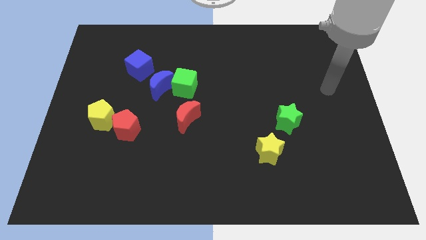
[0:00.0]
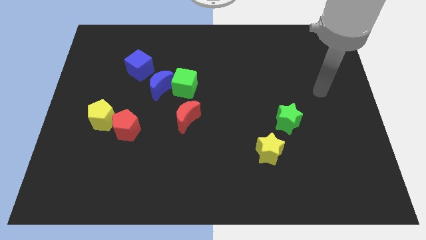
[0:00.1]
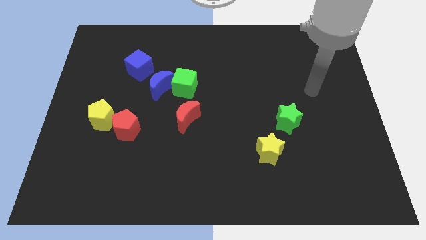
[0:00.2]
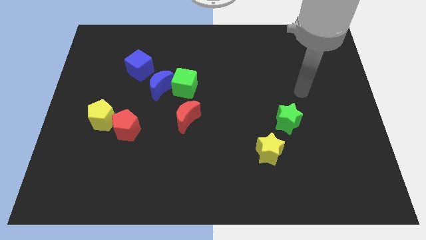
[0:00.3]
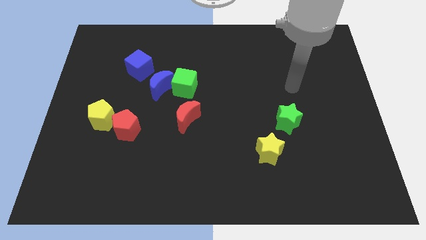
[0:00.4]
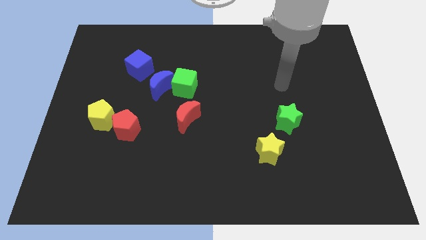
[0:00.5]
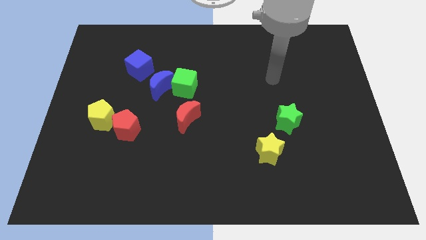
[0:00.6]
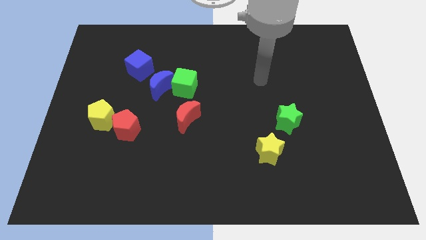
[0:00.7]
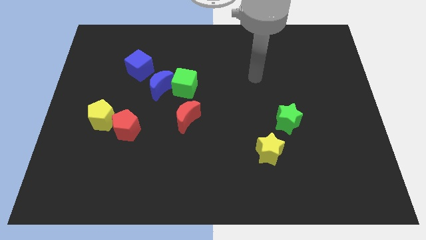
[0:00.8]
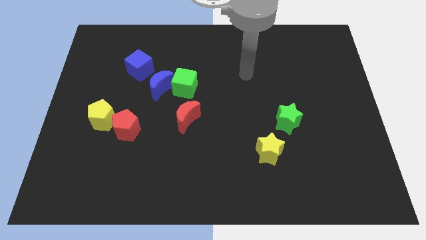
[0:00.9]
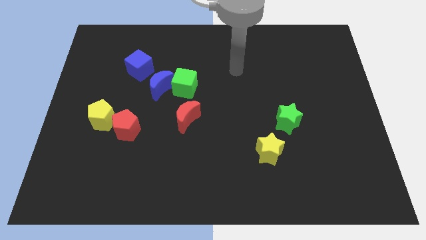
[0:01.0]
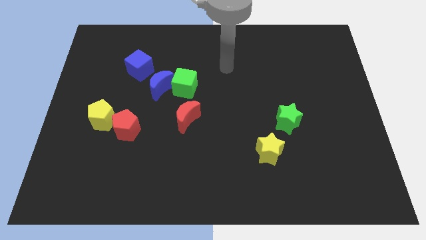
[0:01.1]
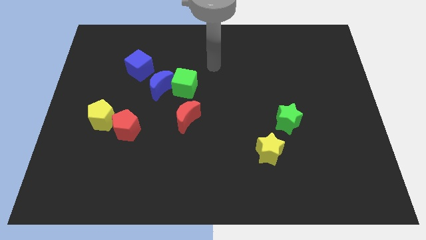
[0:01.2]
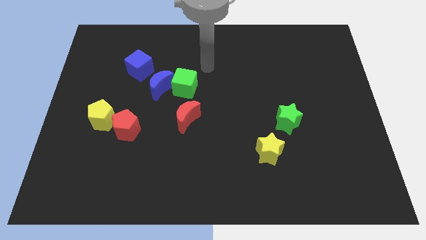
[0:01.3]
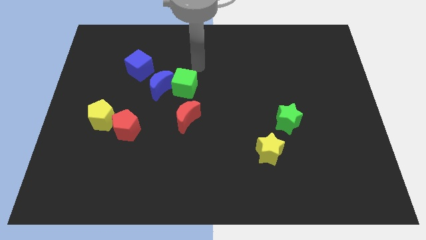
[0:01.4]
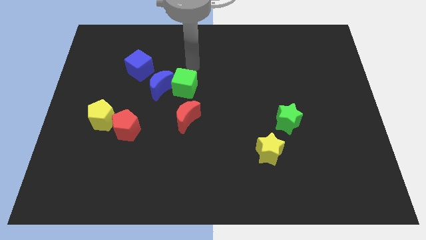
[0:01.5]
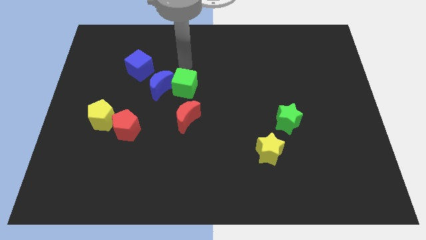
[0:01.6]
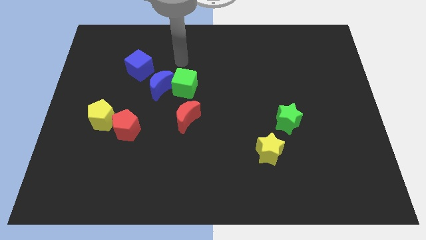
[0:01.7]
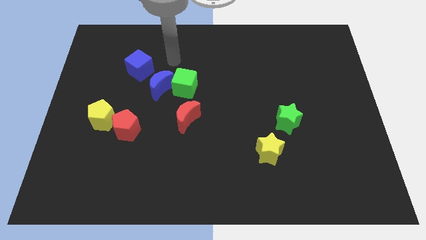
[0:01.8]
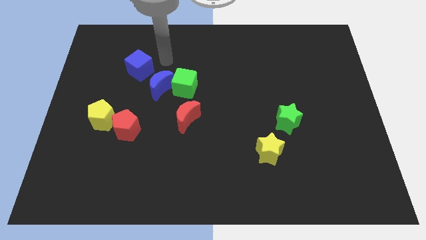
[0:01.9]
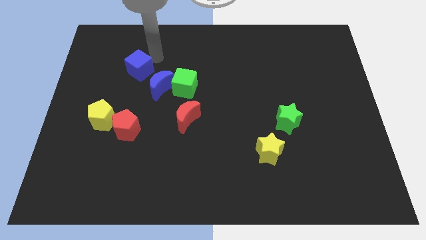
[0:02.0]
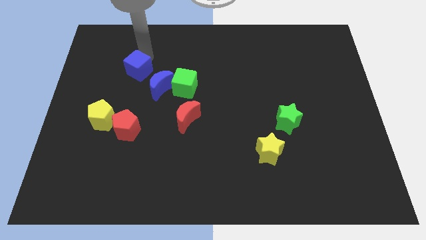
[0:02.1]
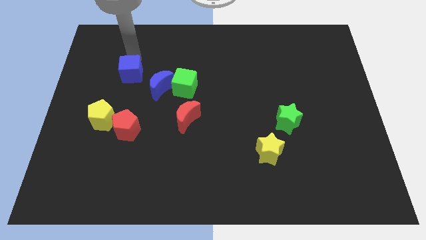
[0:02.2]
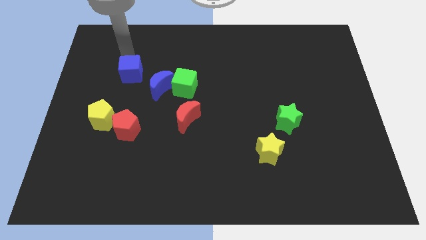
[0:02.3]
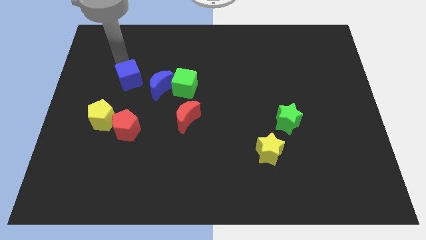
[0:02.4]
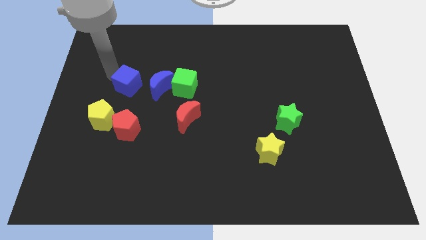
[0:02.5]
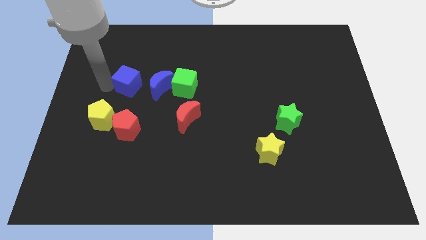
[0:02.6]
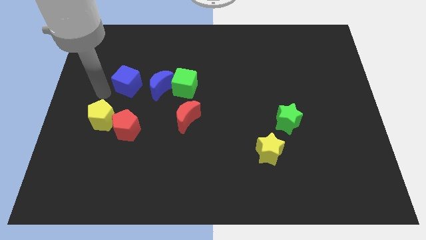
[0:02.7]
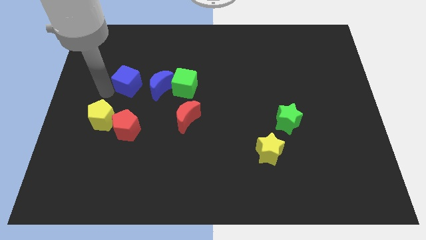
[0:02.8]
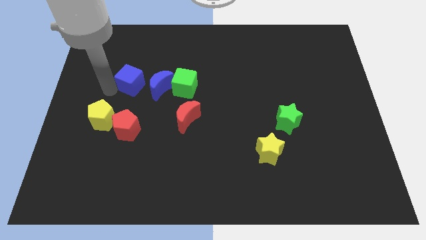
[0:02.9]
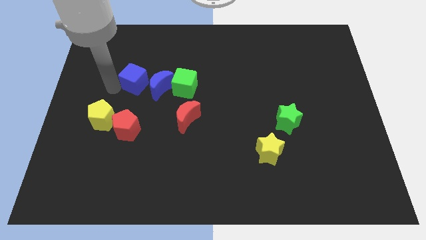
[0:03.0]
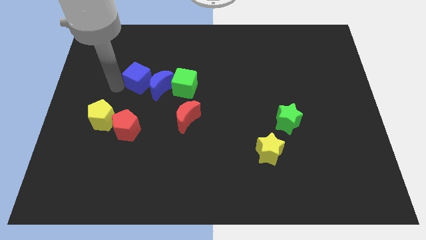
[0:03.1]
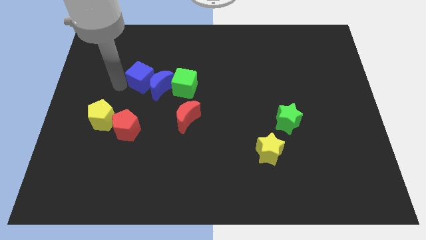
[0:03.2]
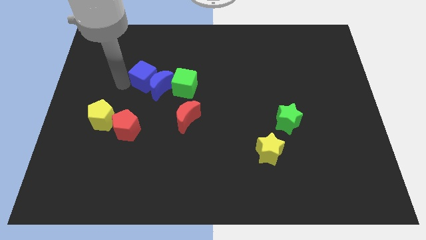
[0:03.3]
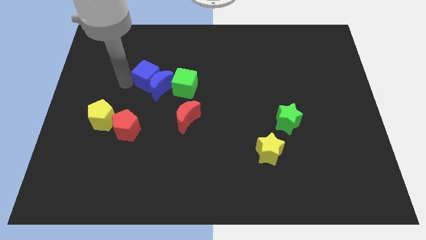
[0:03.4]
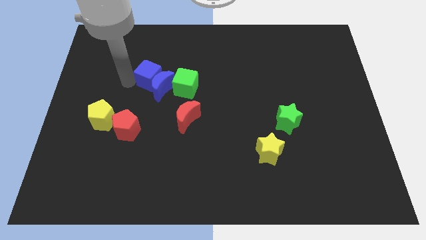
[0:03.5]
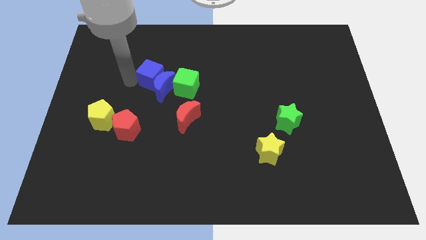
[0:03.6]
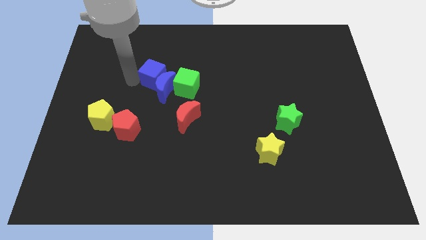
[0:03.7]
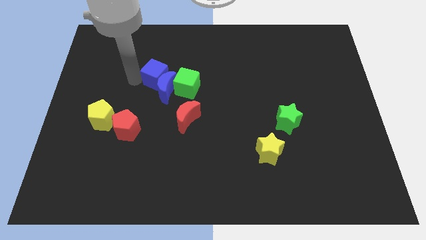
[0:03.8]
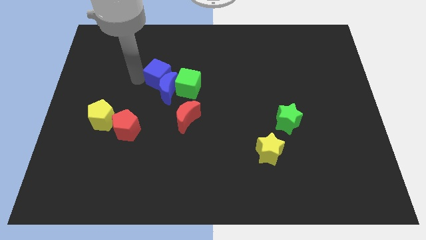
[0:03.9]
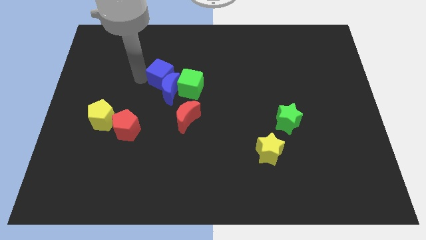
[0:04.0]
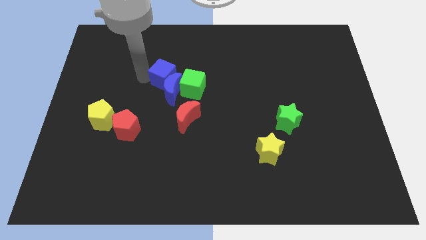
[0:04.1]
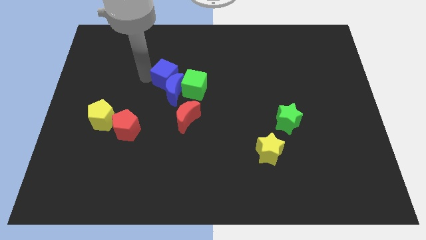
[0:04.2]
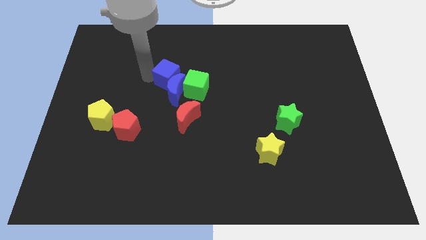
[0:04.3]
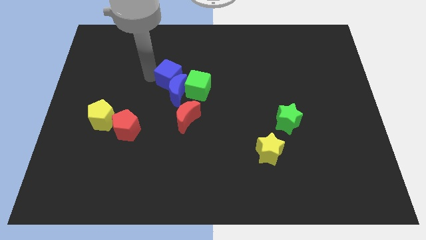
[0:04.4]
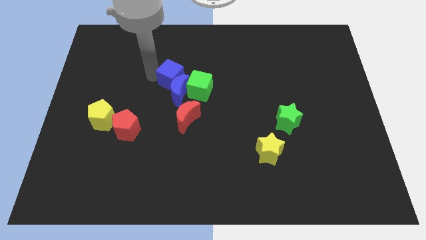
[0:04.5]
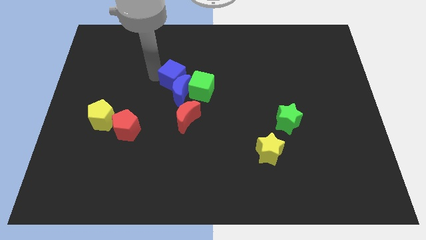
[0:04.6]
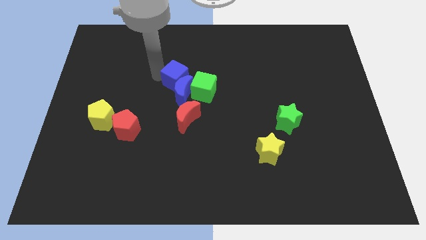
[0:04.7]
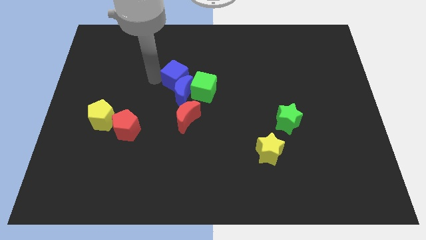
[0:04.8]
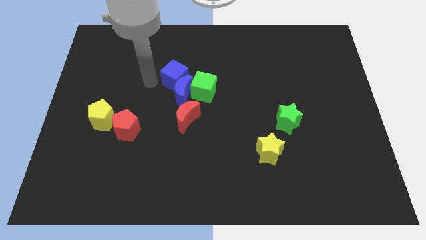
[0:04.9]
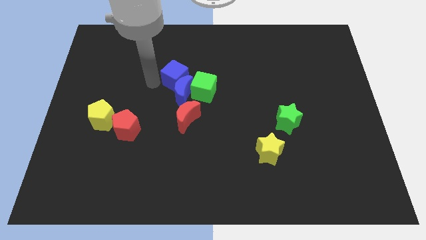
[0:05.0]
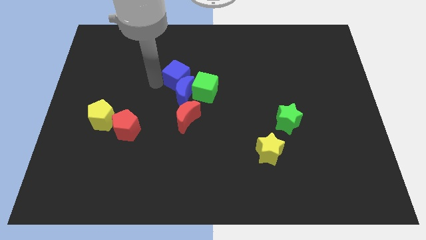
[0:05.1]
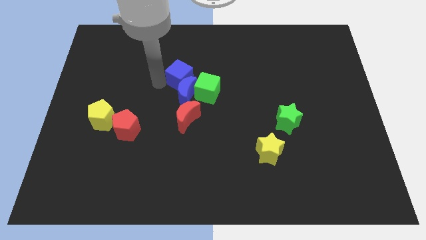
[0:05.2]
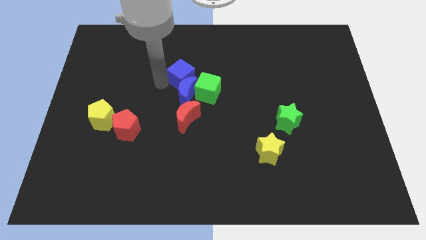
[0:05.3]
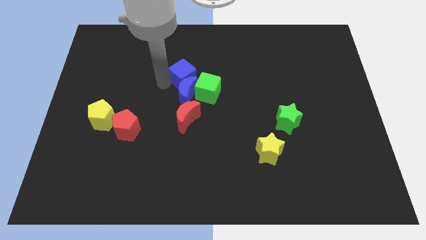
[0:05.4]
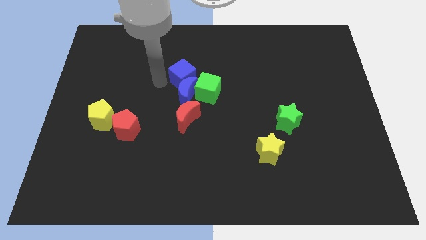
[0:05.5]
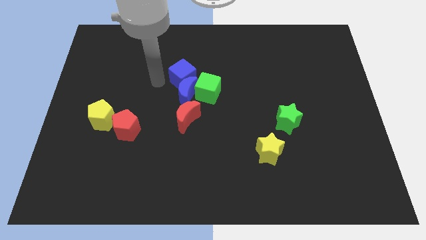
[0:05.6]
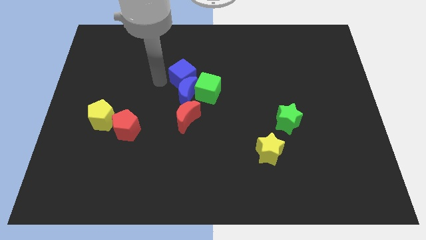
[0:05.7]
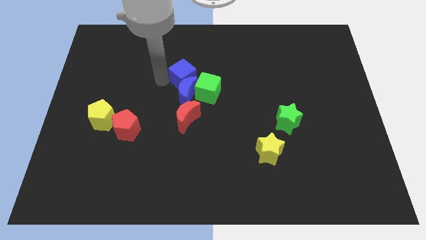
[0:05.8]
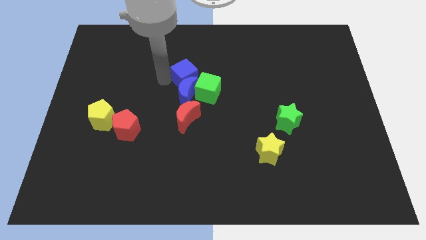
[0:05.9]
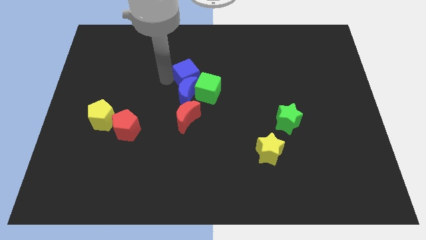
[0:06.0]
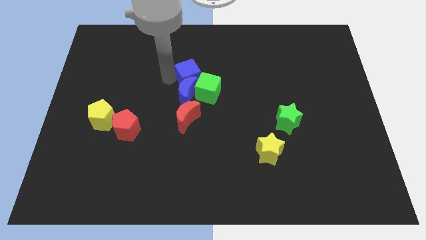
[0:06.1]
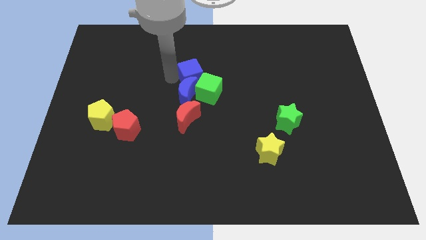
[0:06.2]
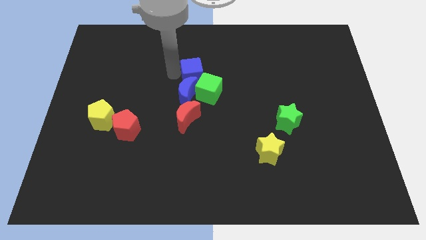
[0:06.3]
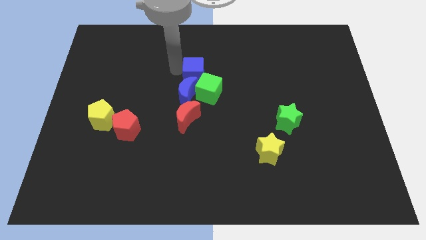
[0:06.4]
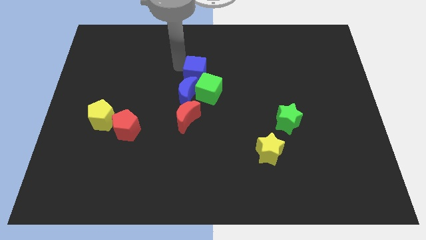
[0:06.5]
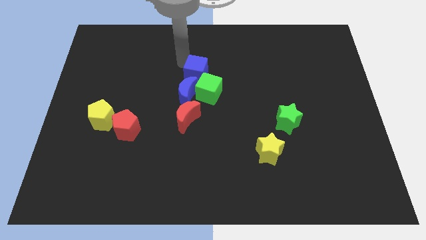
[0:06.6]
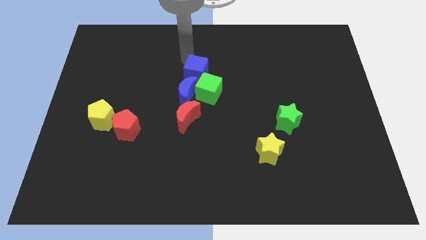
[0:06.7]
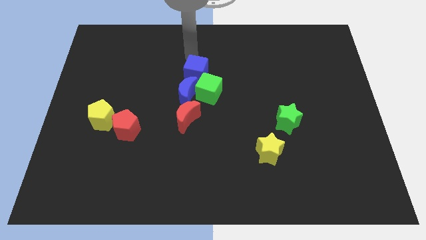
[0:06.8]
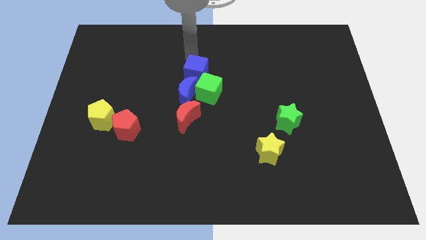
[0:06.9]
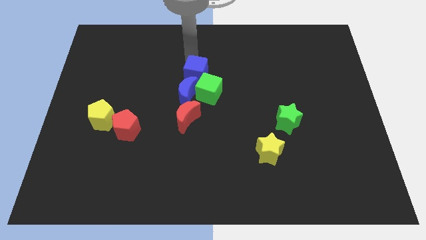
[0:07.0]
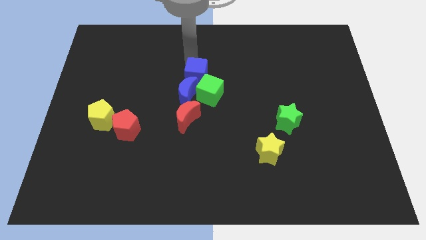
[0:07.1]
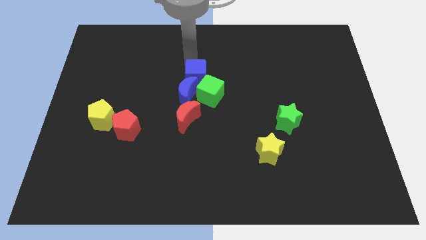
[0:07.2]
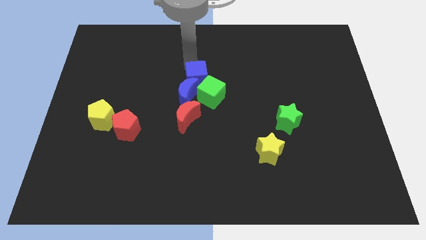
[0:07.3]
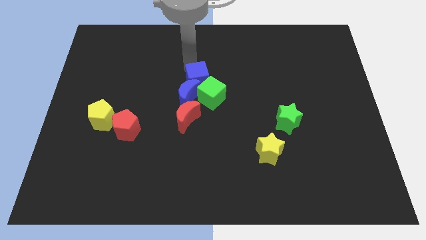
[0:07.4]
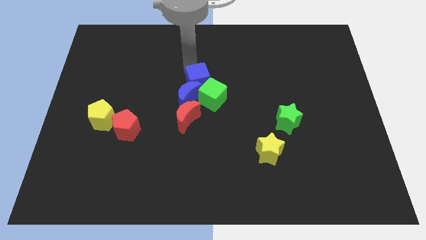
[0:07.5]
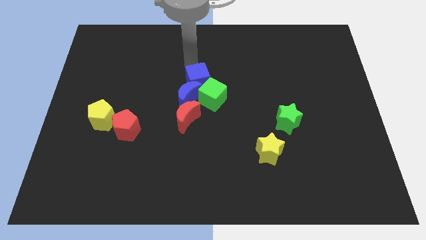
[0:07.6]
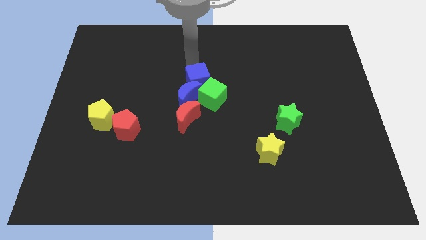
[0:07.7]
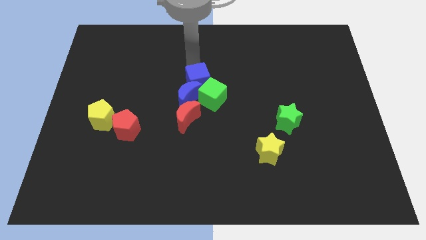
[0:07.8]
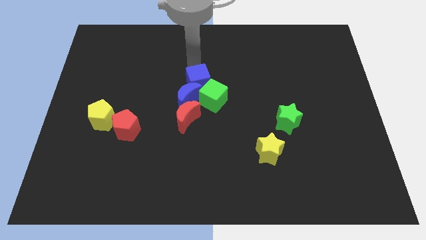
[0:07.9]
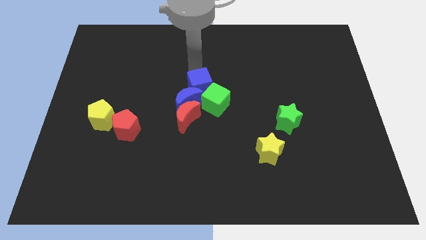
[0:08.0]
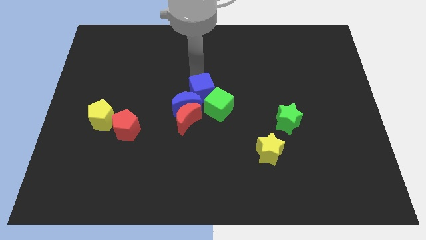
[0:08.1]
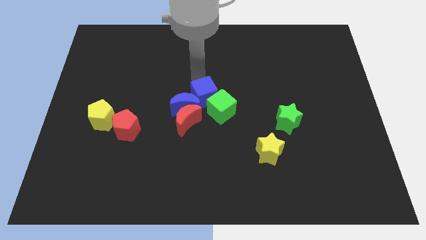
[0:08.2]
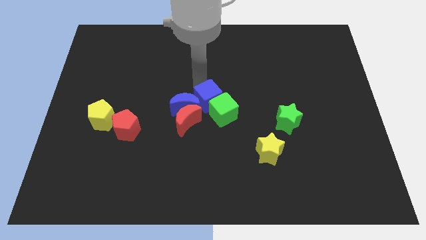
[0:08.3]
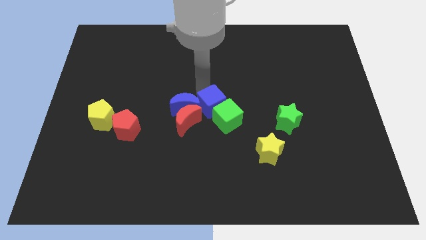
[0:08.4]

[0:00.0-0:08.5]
push the blue cube diagonally down and to the right
